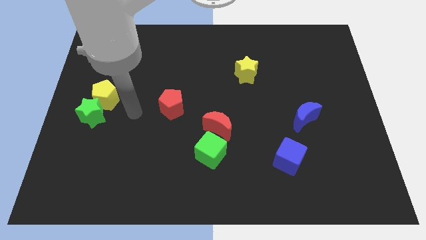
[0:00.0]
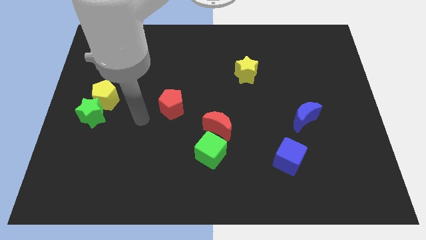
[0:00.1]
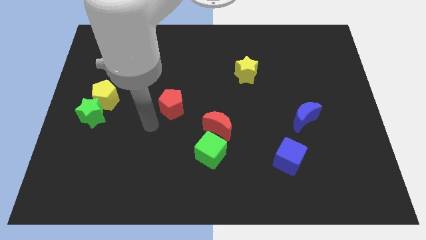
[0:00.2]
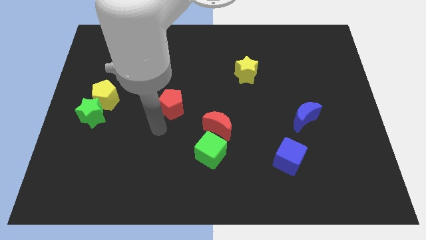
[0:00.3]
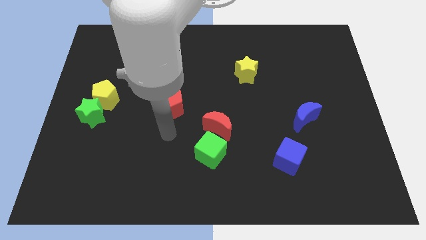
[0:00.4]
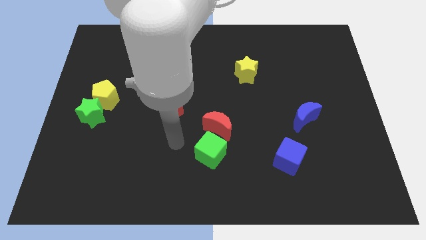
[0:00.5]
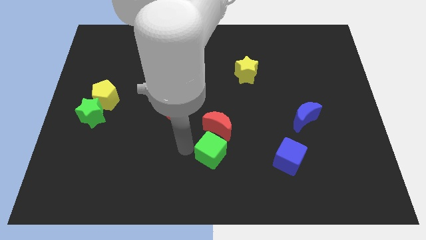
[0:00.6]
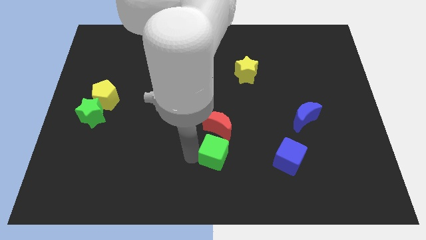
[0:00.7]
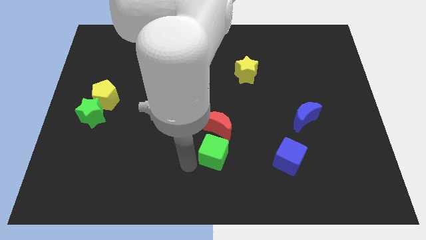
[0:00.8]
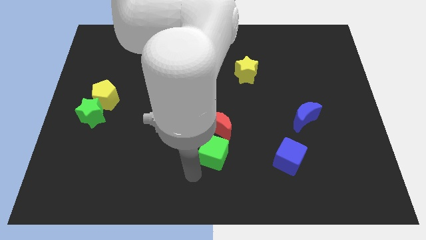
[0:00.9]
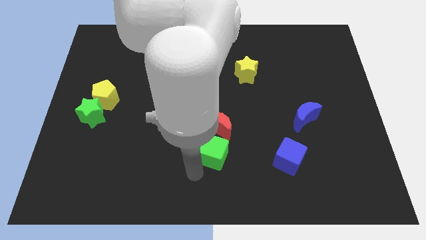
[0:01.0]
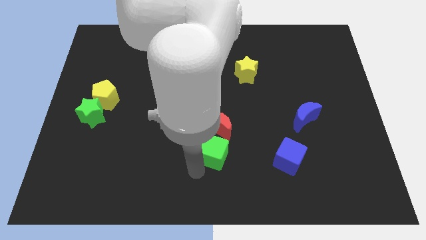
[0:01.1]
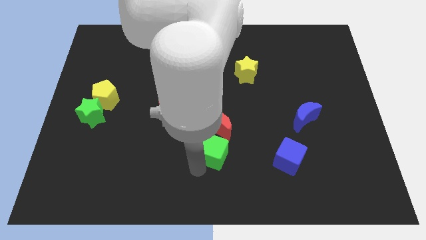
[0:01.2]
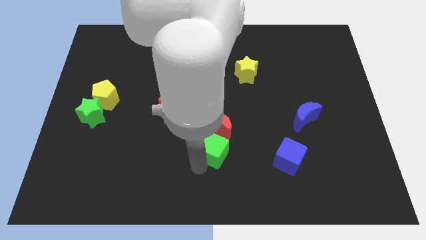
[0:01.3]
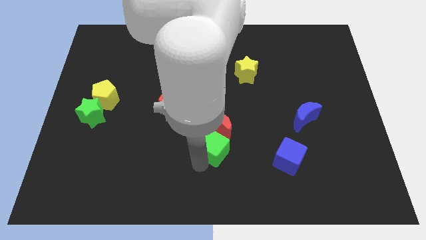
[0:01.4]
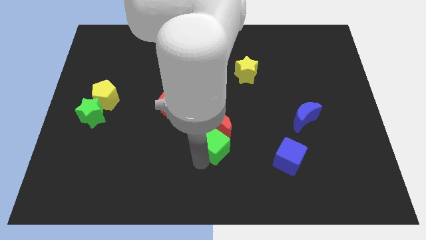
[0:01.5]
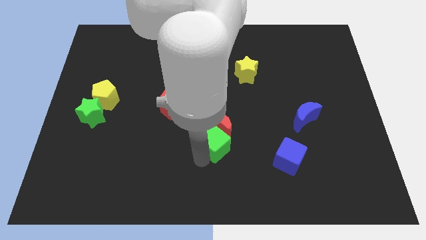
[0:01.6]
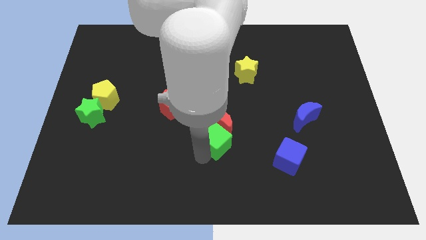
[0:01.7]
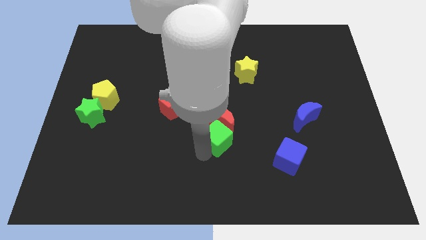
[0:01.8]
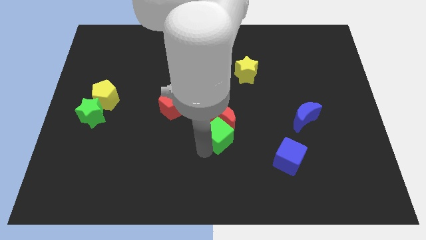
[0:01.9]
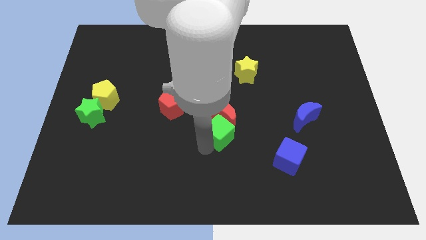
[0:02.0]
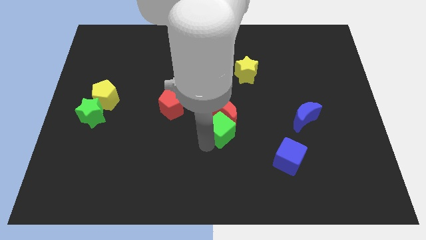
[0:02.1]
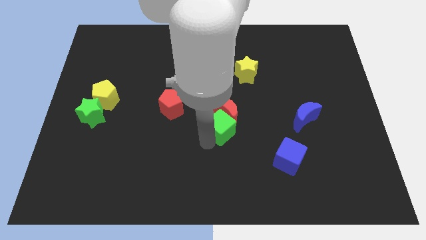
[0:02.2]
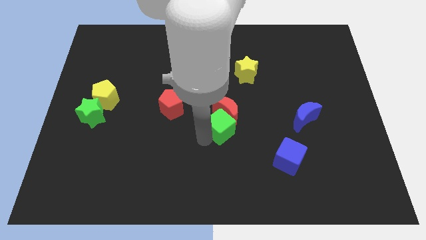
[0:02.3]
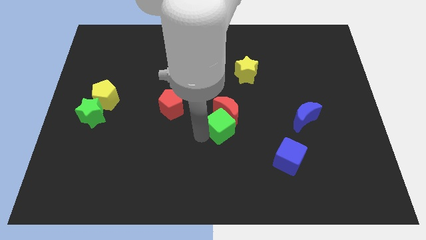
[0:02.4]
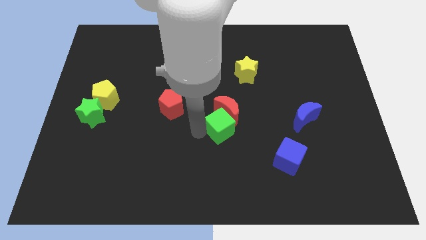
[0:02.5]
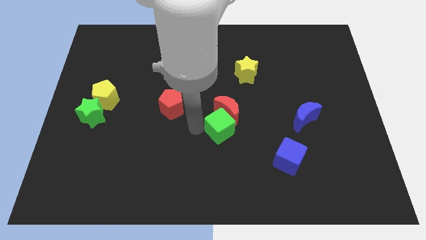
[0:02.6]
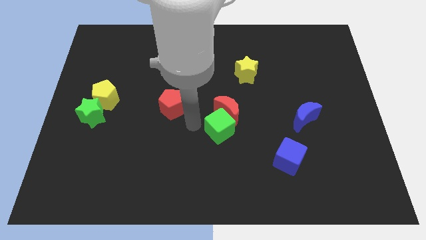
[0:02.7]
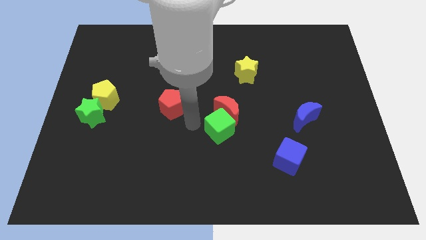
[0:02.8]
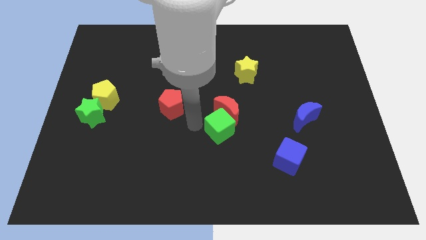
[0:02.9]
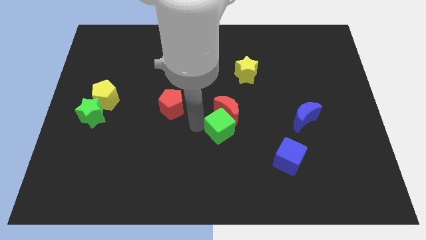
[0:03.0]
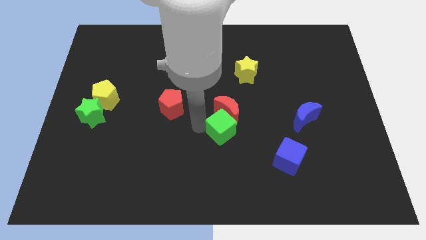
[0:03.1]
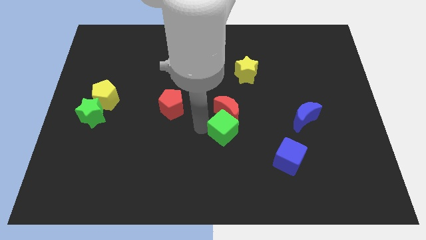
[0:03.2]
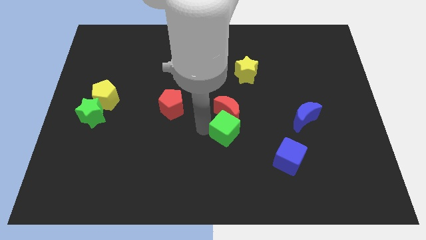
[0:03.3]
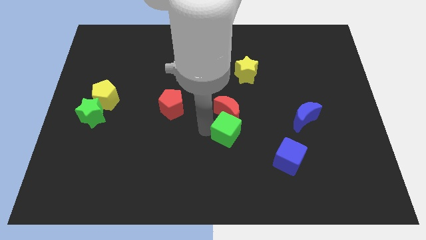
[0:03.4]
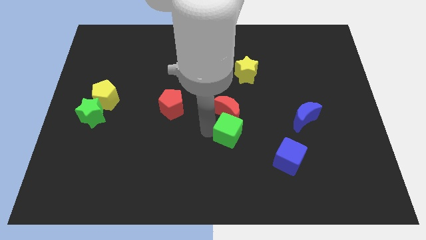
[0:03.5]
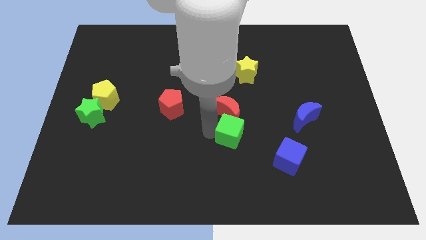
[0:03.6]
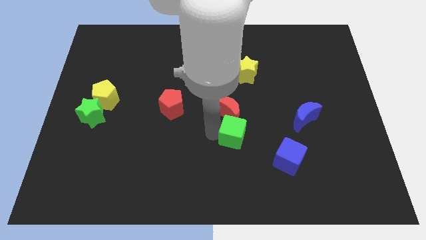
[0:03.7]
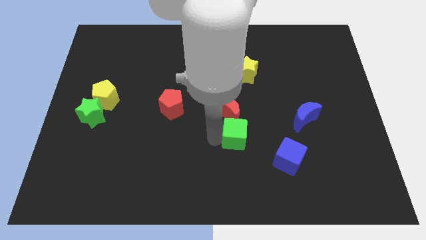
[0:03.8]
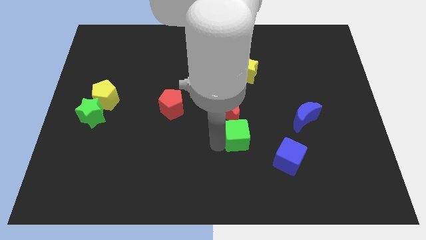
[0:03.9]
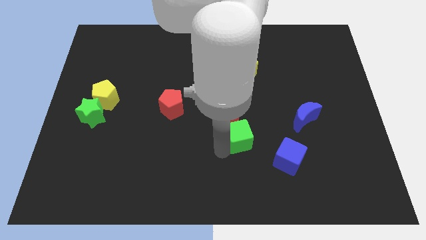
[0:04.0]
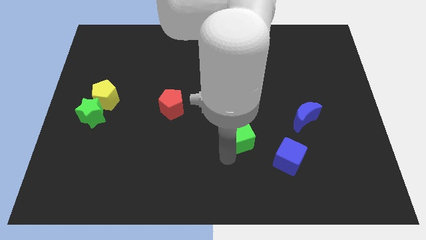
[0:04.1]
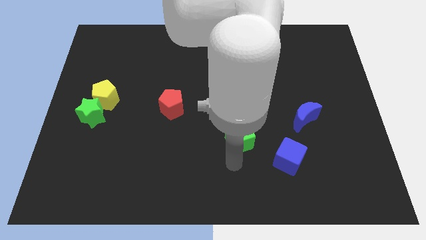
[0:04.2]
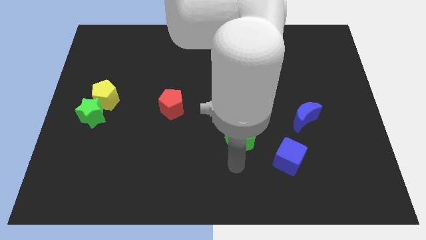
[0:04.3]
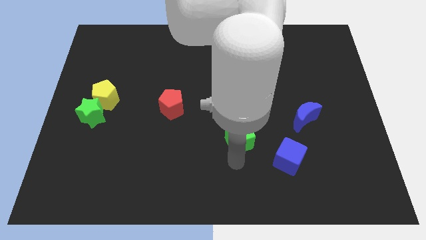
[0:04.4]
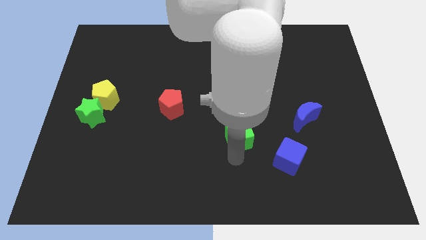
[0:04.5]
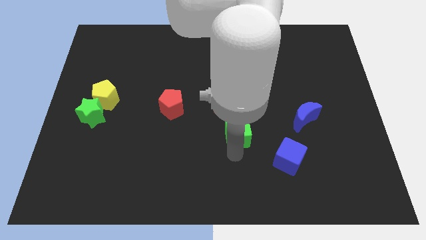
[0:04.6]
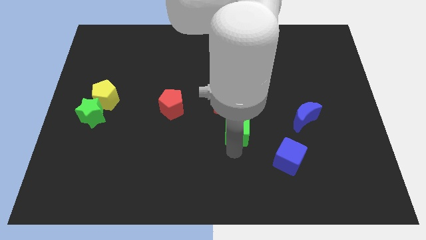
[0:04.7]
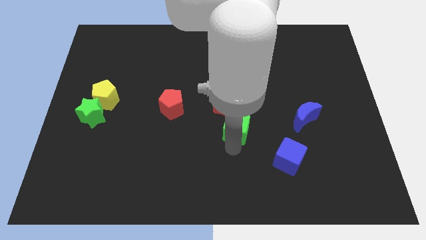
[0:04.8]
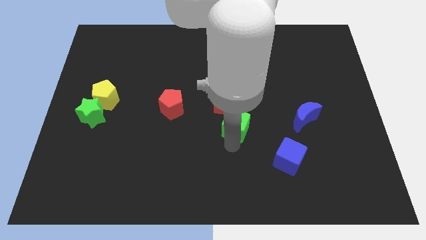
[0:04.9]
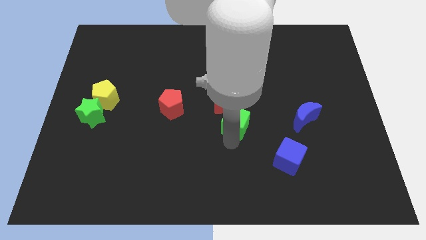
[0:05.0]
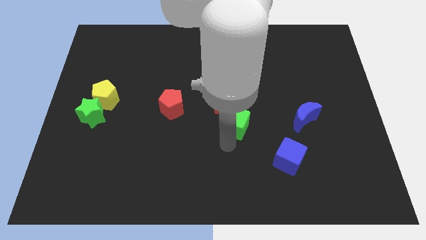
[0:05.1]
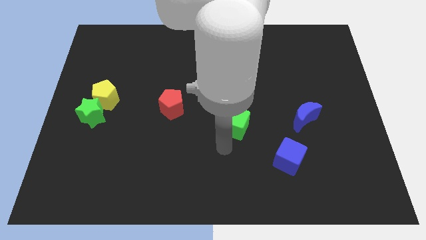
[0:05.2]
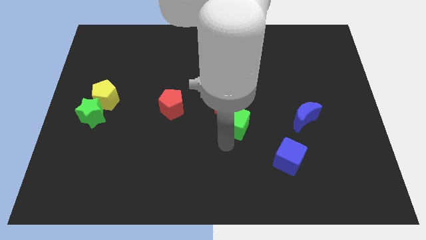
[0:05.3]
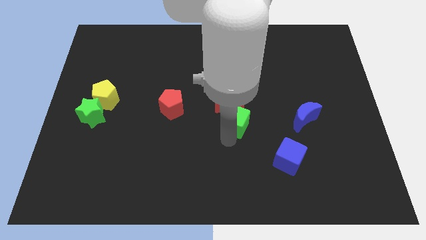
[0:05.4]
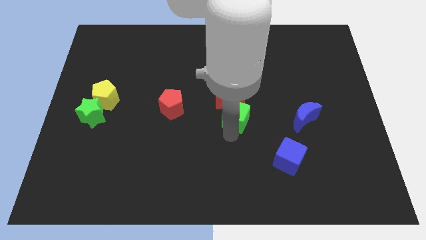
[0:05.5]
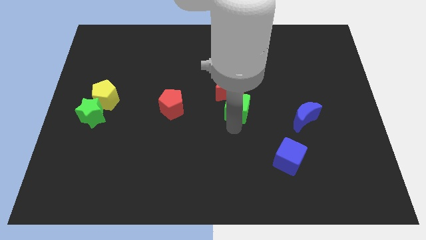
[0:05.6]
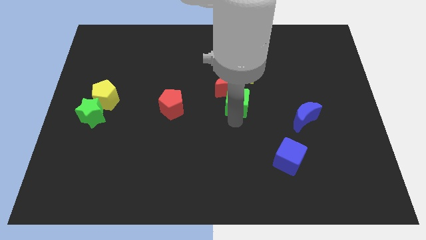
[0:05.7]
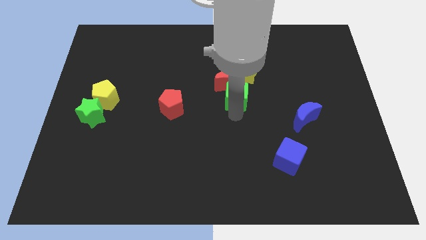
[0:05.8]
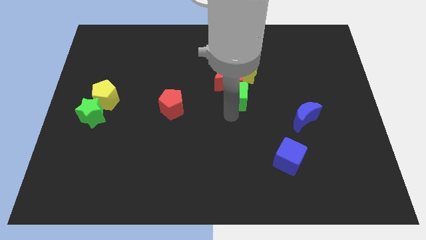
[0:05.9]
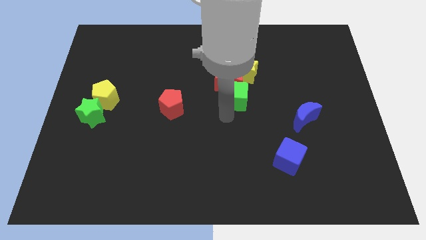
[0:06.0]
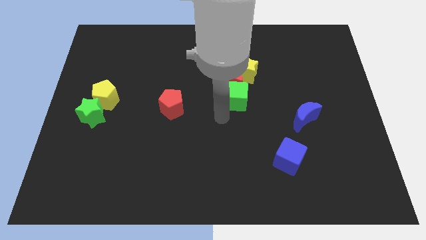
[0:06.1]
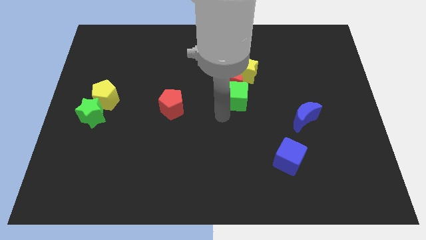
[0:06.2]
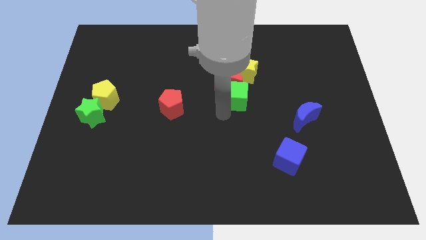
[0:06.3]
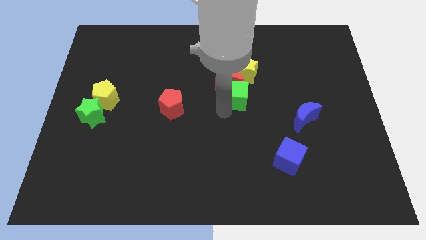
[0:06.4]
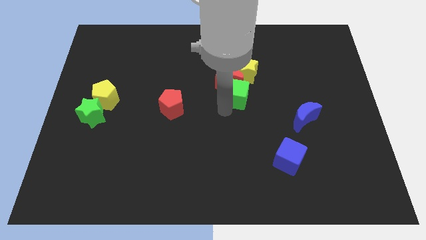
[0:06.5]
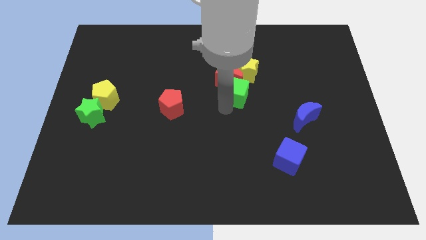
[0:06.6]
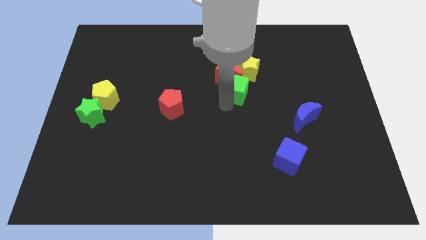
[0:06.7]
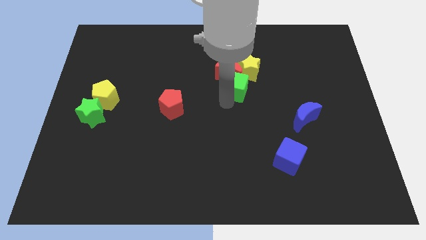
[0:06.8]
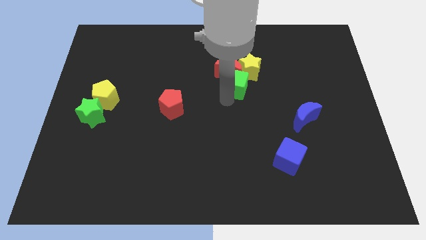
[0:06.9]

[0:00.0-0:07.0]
put the green cube to the yellow star
